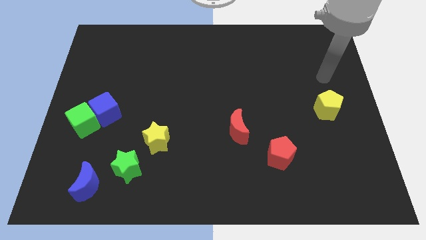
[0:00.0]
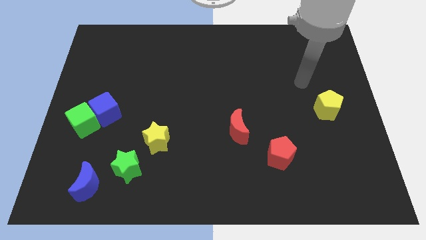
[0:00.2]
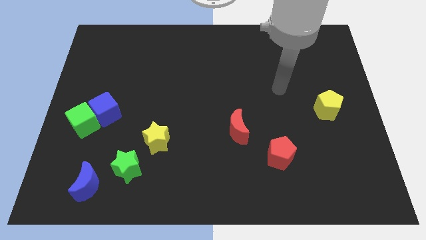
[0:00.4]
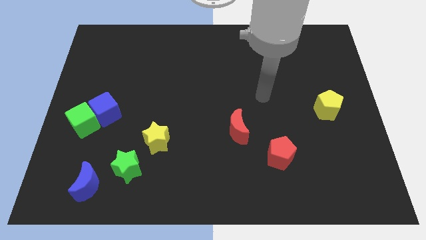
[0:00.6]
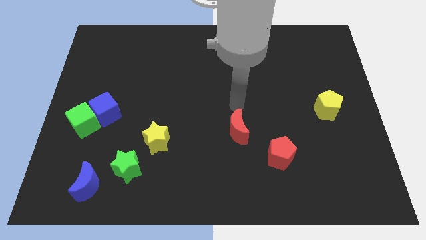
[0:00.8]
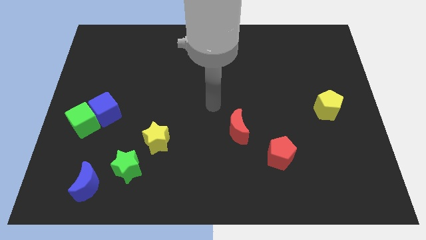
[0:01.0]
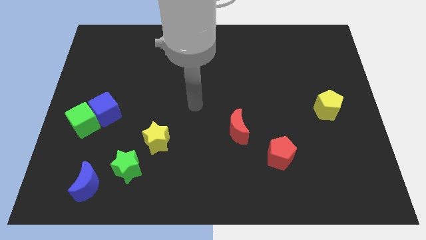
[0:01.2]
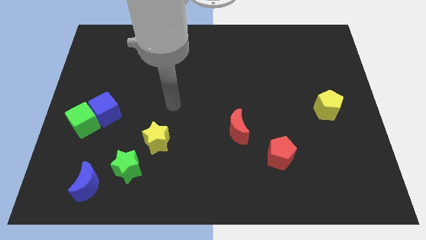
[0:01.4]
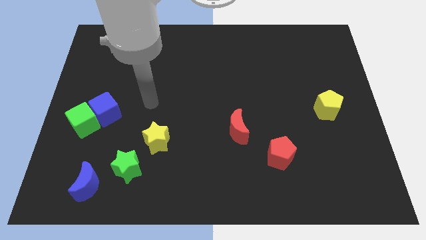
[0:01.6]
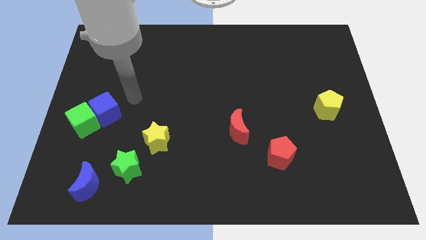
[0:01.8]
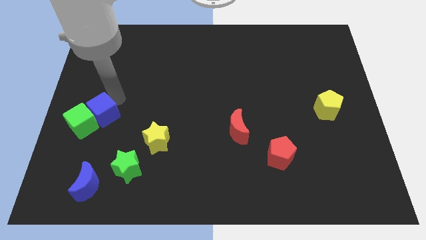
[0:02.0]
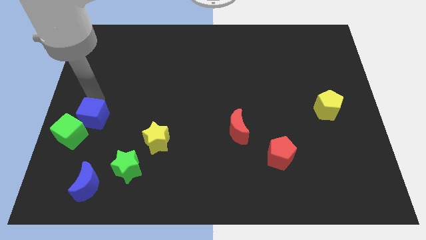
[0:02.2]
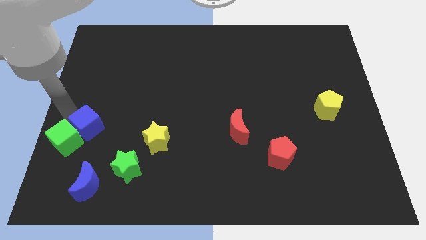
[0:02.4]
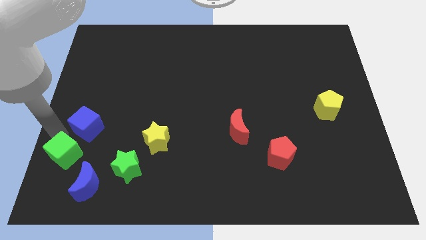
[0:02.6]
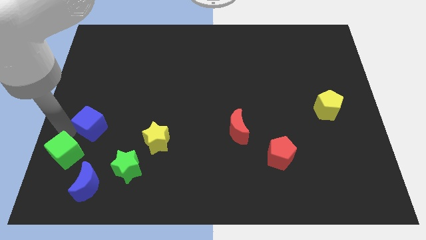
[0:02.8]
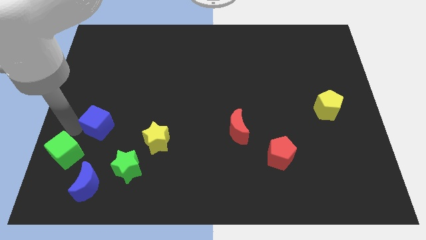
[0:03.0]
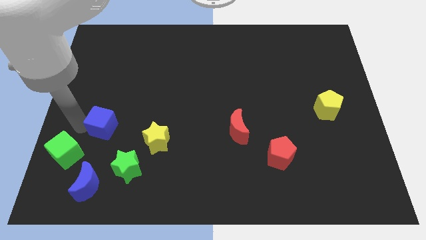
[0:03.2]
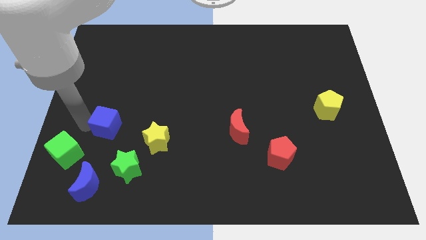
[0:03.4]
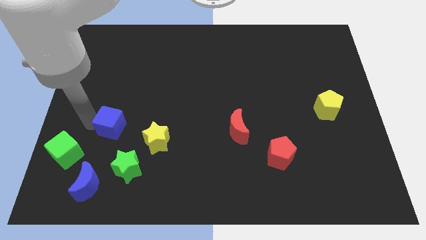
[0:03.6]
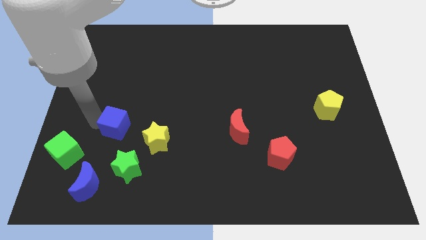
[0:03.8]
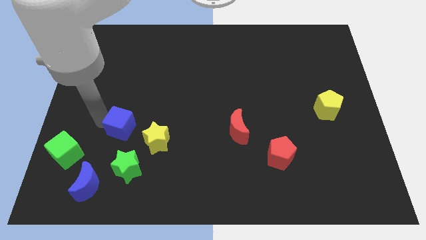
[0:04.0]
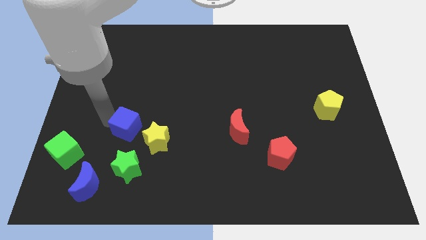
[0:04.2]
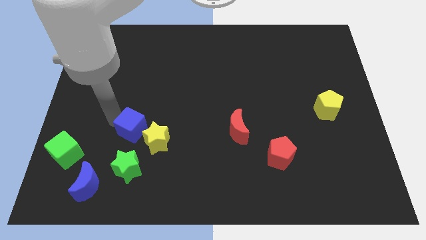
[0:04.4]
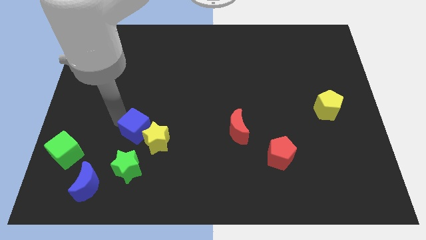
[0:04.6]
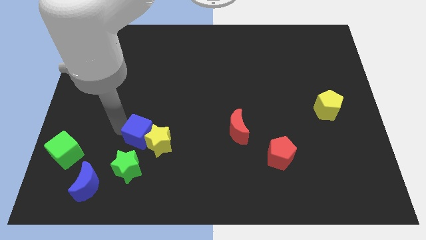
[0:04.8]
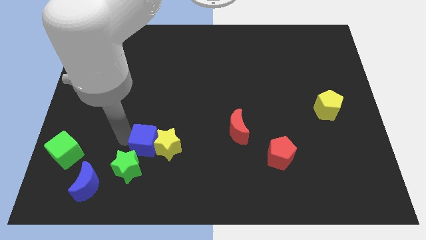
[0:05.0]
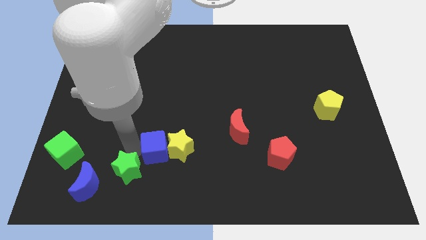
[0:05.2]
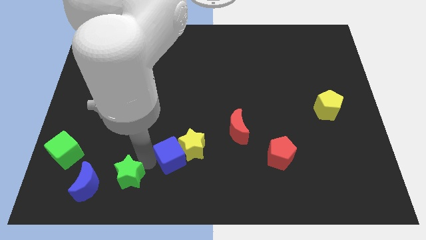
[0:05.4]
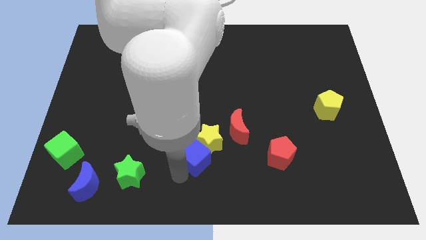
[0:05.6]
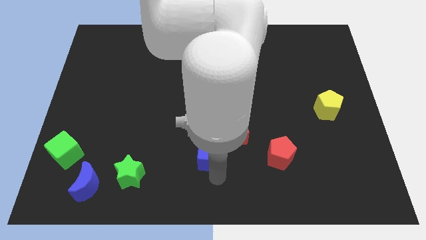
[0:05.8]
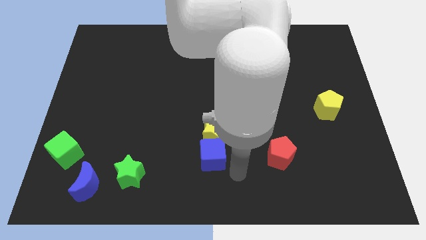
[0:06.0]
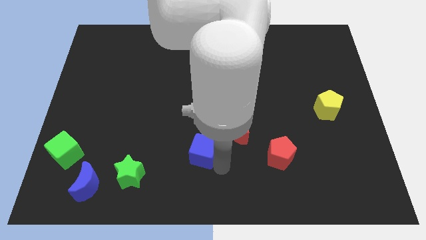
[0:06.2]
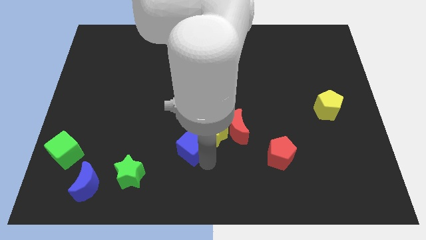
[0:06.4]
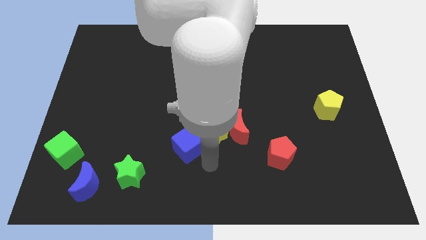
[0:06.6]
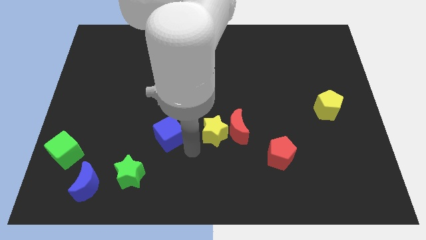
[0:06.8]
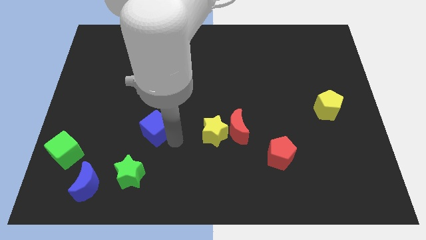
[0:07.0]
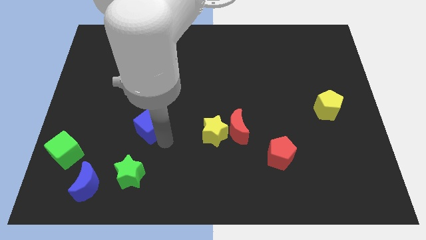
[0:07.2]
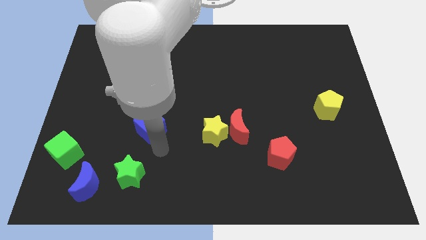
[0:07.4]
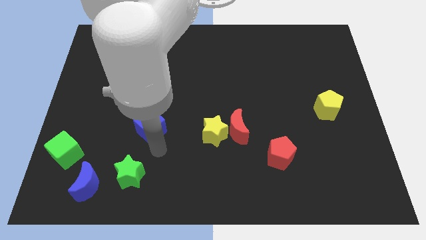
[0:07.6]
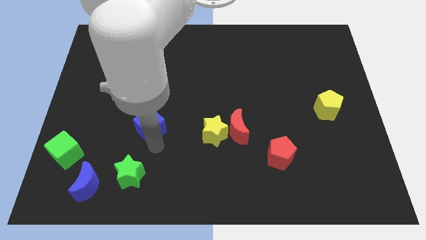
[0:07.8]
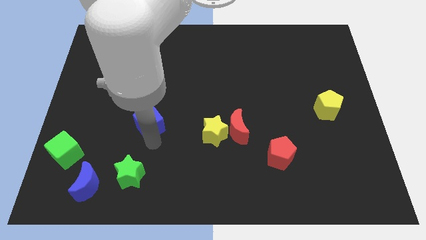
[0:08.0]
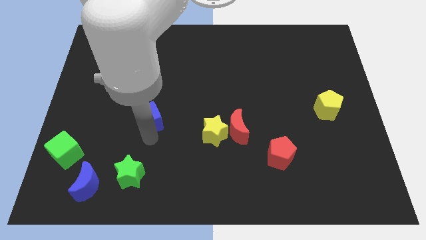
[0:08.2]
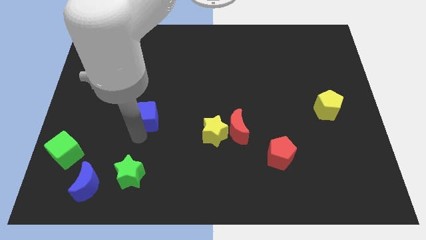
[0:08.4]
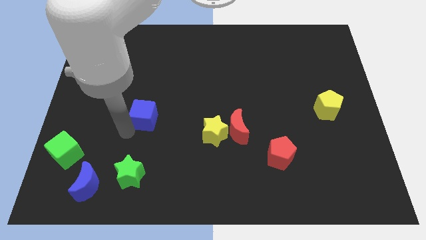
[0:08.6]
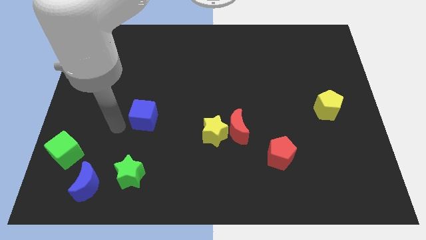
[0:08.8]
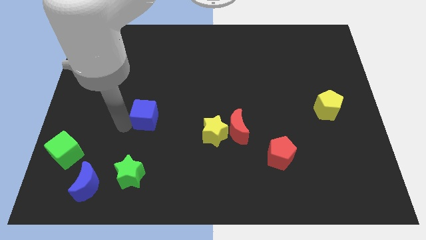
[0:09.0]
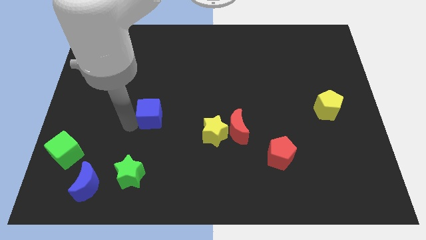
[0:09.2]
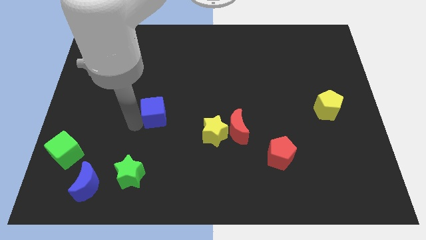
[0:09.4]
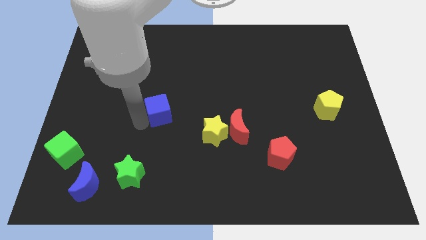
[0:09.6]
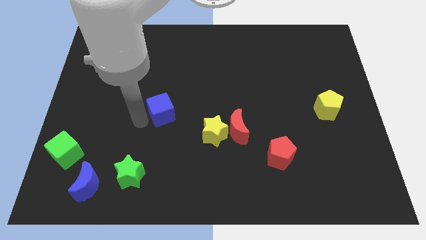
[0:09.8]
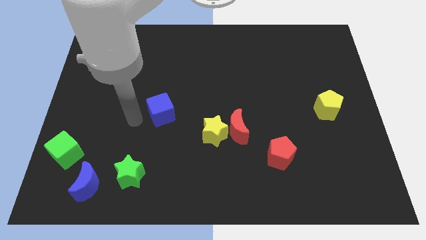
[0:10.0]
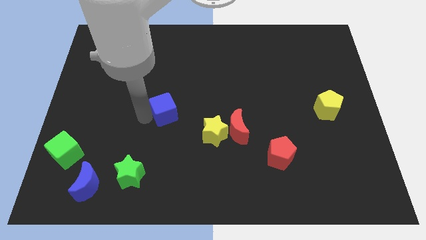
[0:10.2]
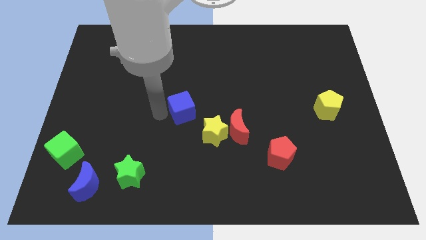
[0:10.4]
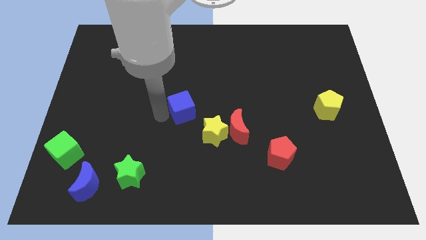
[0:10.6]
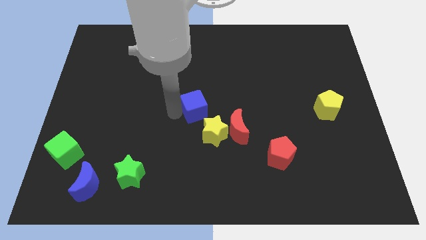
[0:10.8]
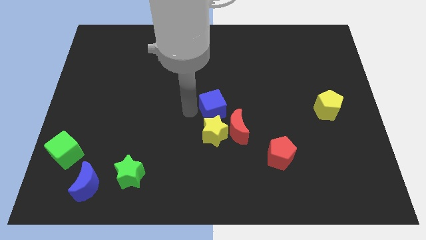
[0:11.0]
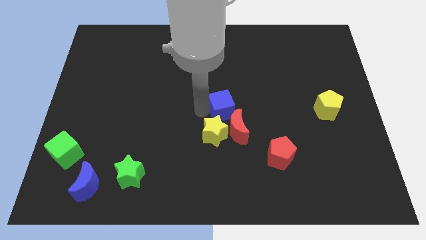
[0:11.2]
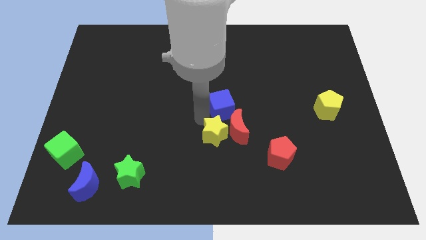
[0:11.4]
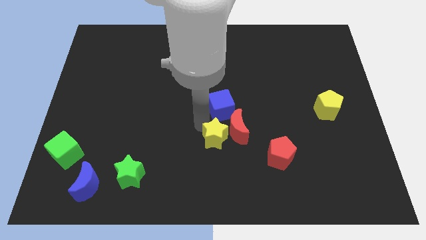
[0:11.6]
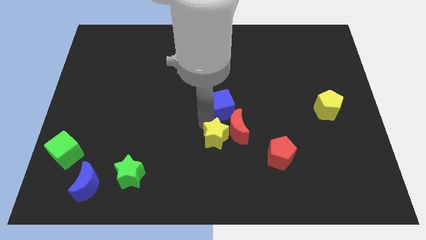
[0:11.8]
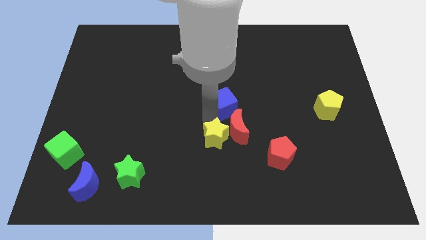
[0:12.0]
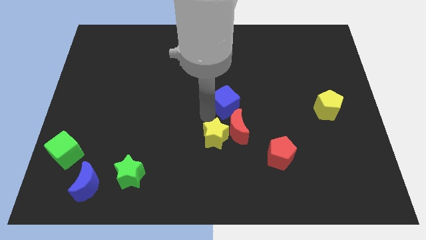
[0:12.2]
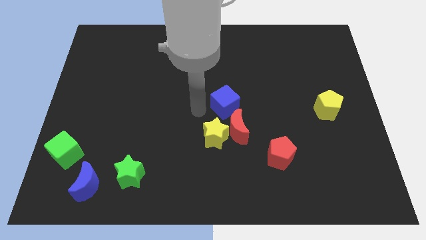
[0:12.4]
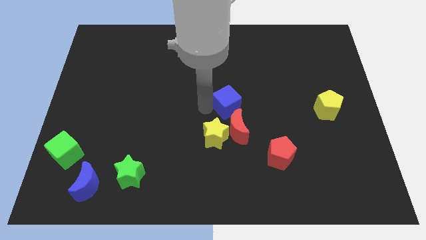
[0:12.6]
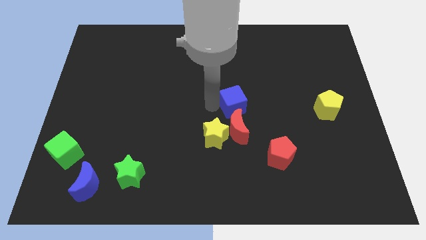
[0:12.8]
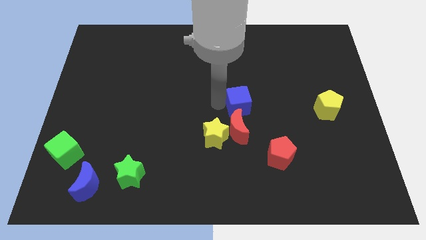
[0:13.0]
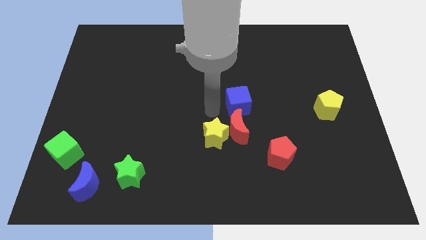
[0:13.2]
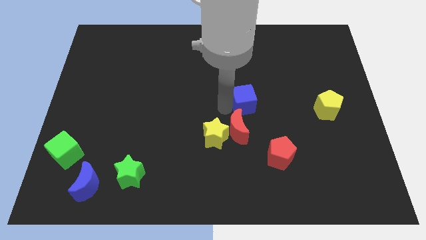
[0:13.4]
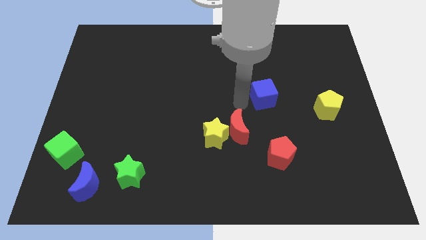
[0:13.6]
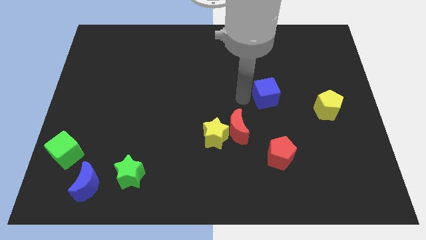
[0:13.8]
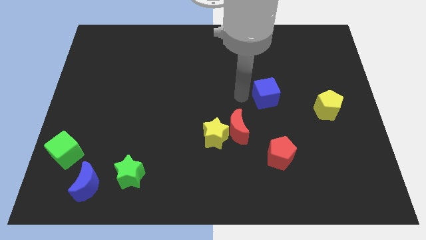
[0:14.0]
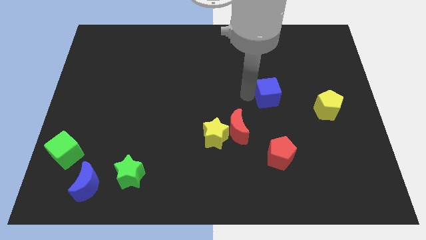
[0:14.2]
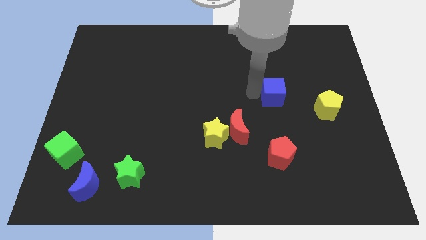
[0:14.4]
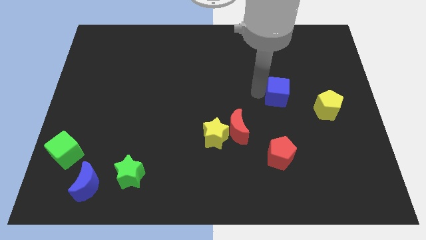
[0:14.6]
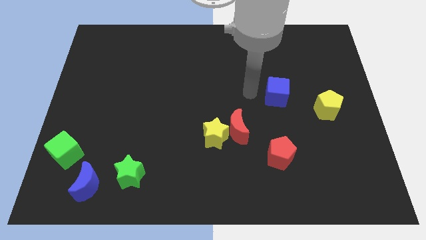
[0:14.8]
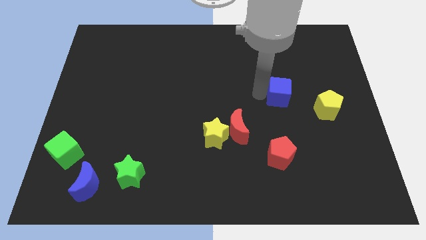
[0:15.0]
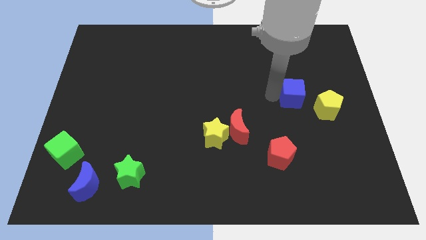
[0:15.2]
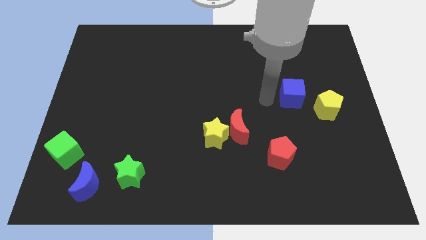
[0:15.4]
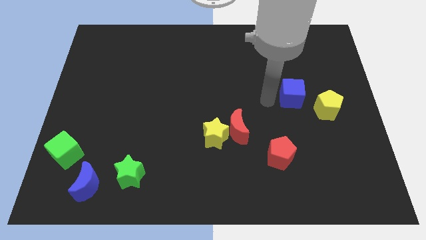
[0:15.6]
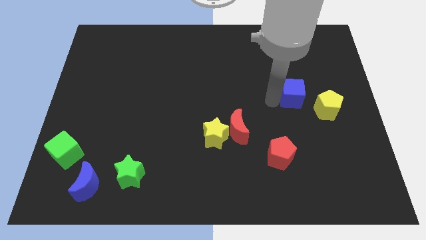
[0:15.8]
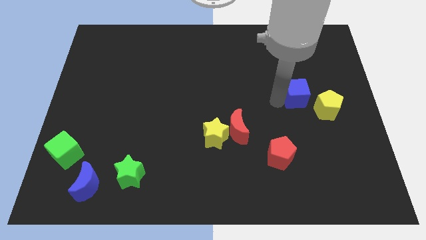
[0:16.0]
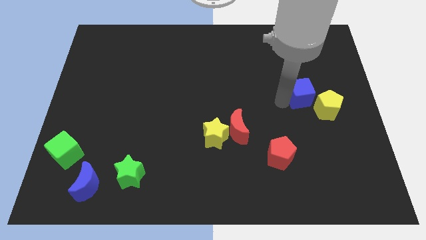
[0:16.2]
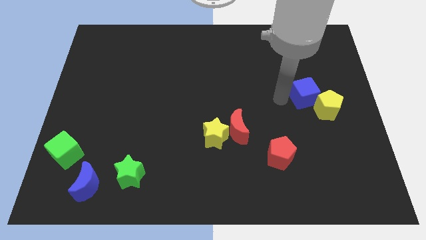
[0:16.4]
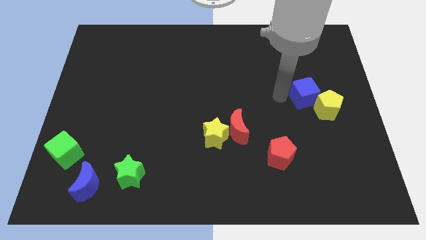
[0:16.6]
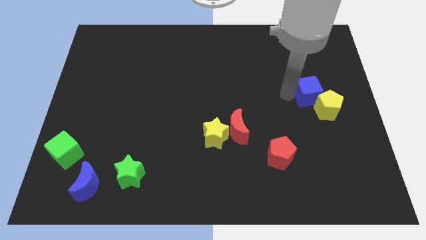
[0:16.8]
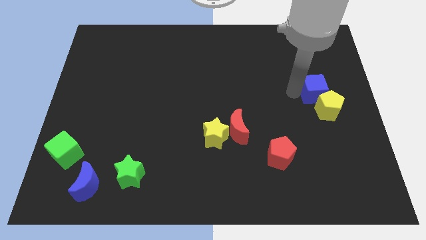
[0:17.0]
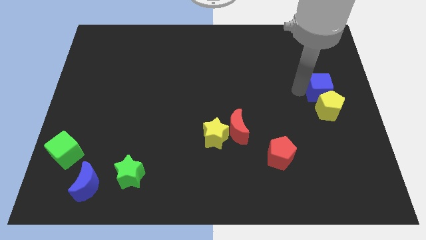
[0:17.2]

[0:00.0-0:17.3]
put the blue cube to the right side of the board
